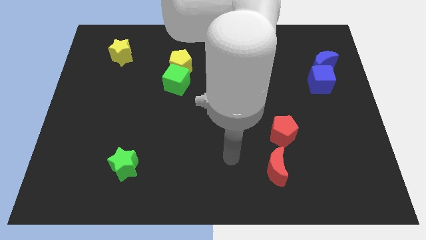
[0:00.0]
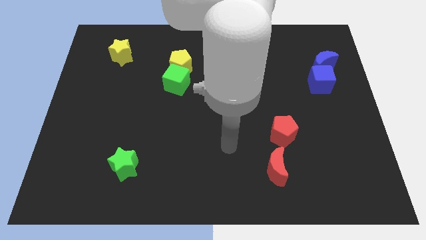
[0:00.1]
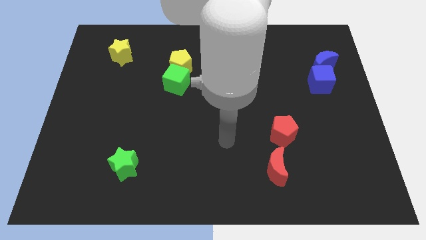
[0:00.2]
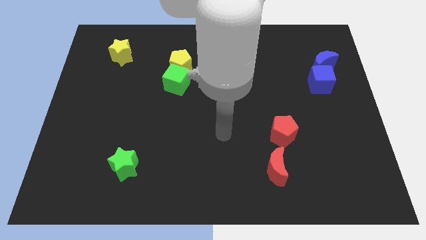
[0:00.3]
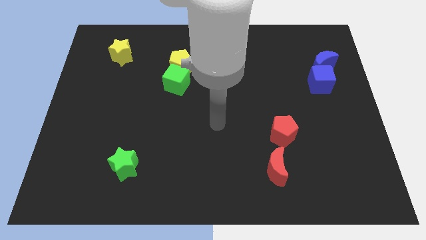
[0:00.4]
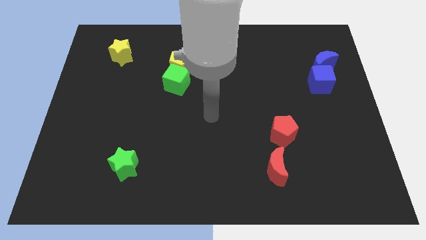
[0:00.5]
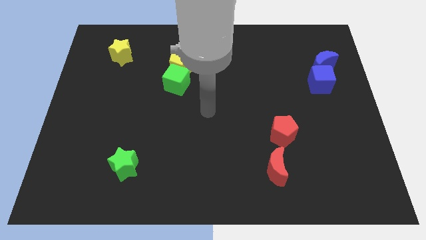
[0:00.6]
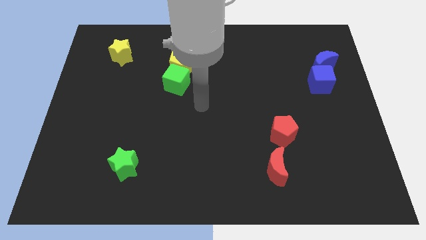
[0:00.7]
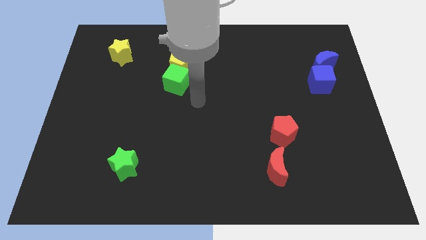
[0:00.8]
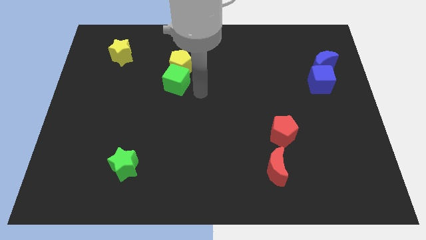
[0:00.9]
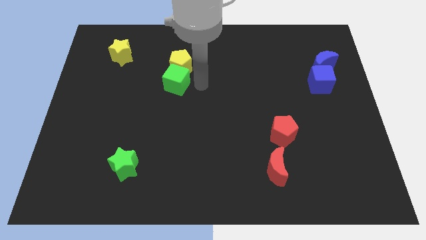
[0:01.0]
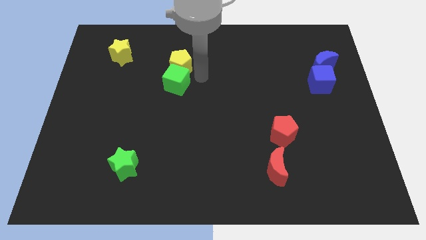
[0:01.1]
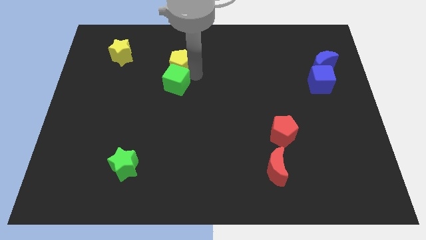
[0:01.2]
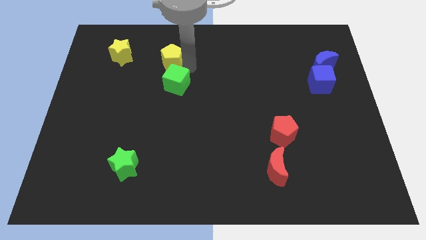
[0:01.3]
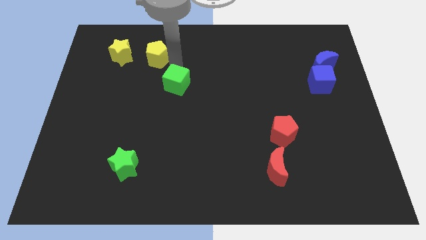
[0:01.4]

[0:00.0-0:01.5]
separate the green cube from the yellow pentagon

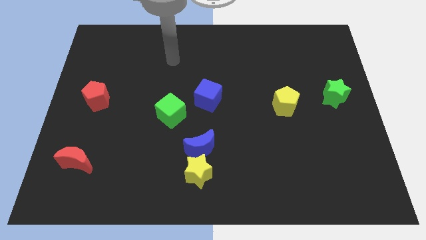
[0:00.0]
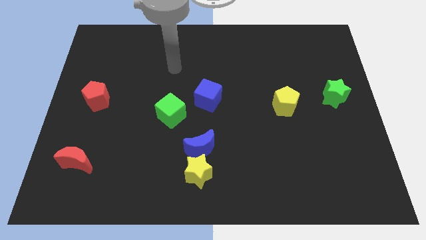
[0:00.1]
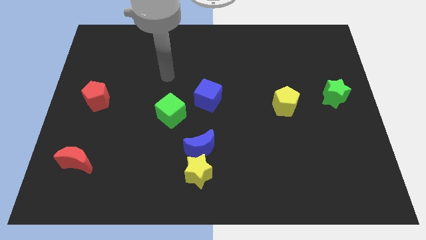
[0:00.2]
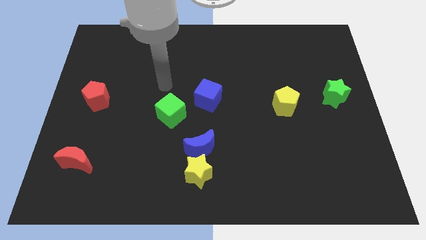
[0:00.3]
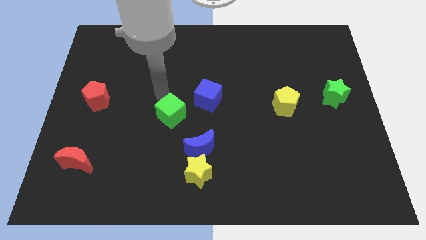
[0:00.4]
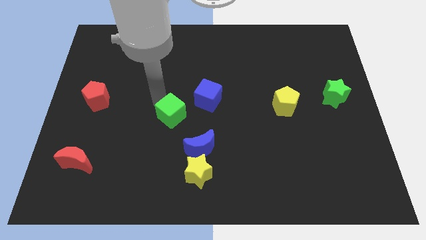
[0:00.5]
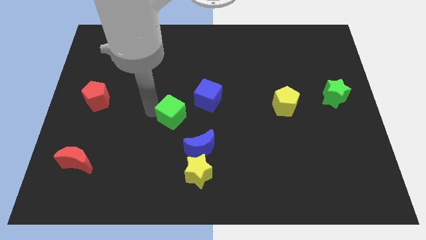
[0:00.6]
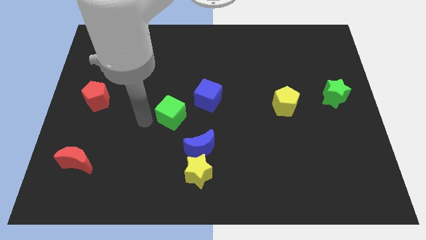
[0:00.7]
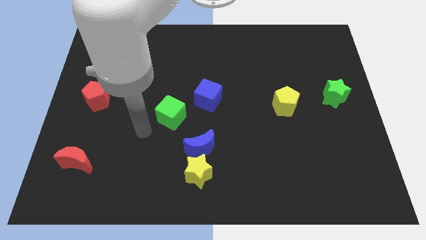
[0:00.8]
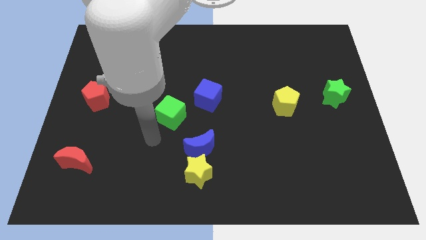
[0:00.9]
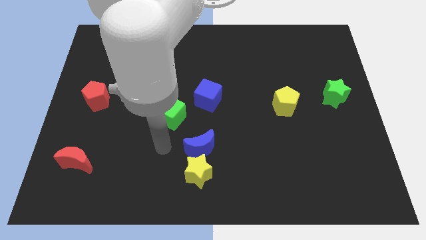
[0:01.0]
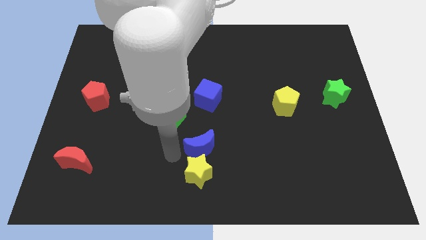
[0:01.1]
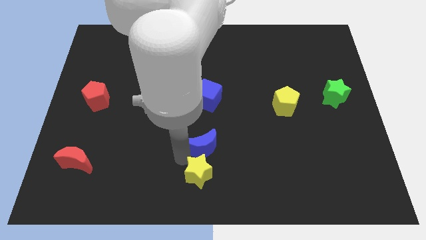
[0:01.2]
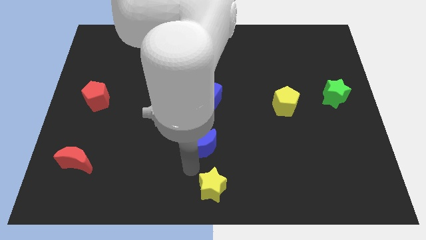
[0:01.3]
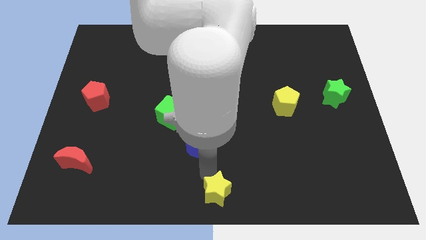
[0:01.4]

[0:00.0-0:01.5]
pull the blue moon apart from the yellow star

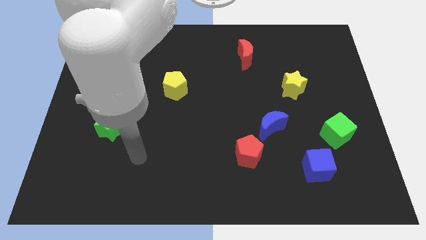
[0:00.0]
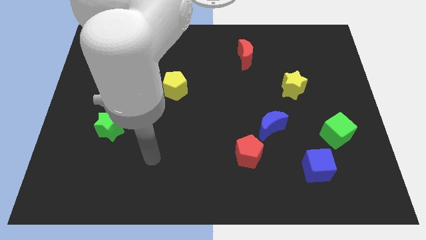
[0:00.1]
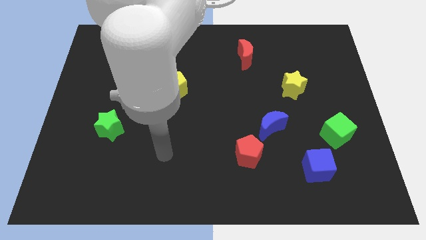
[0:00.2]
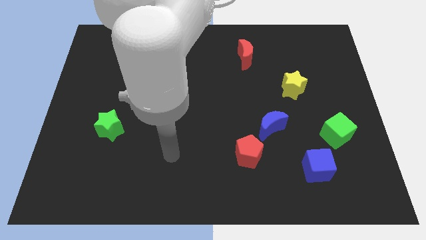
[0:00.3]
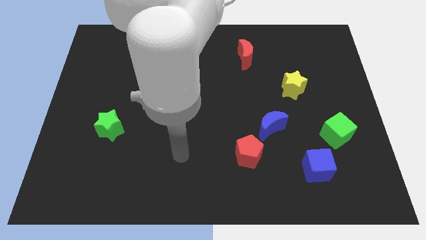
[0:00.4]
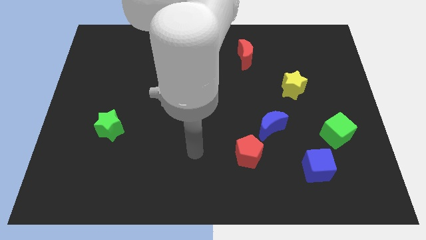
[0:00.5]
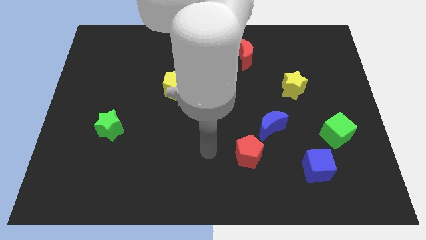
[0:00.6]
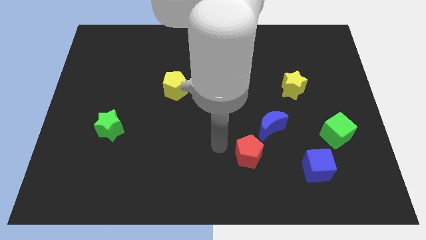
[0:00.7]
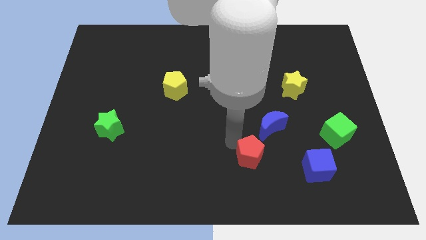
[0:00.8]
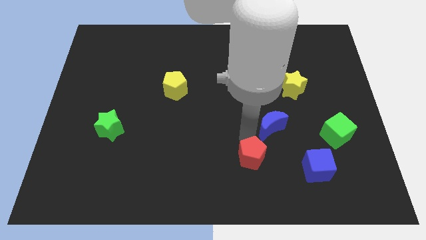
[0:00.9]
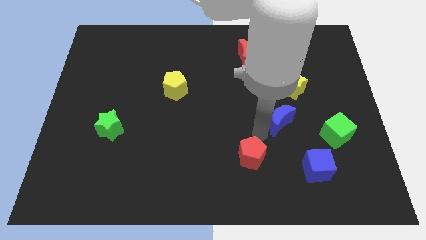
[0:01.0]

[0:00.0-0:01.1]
move the red pentagon away from the blue moon

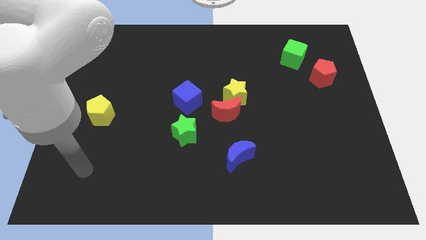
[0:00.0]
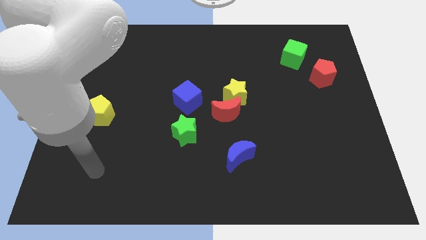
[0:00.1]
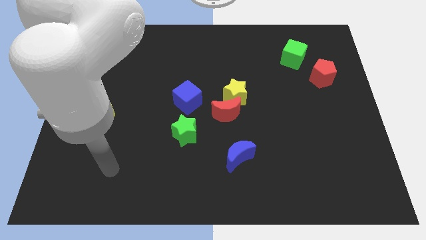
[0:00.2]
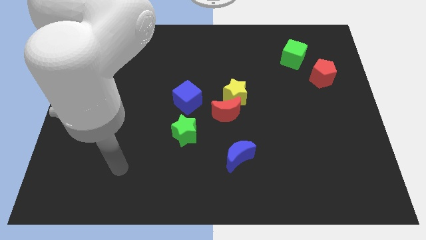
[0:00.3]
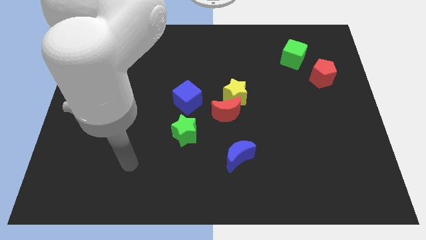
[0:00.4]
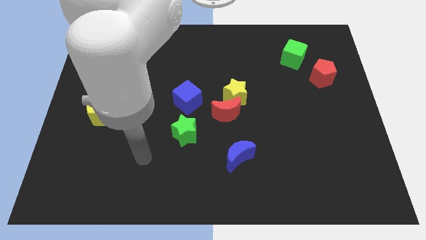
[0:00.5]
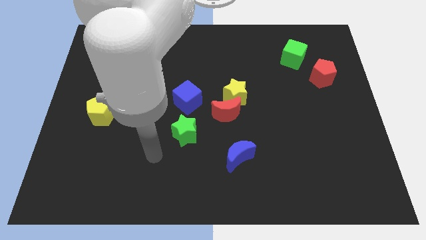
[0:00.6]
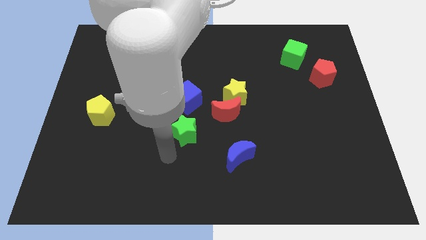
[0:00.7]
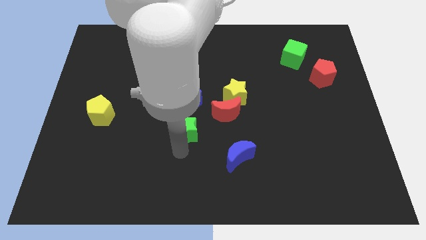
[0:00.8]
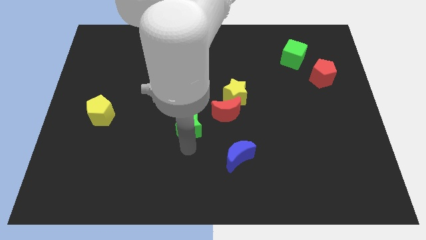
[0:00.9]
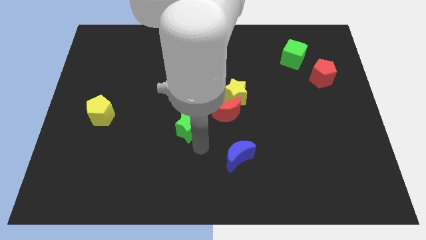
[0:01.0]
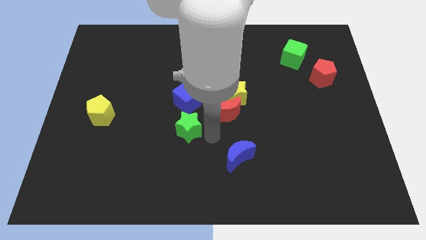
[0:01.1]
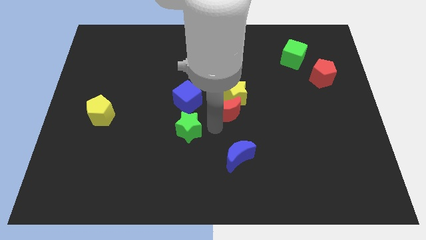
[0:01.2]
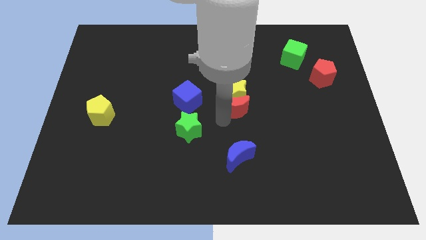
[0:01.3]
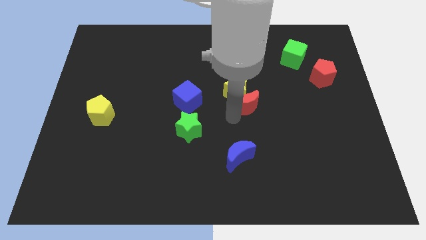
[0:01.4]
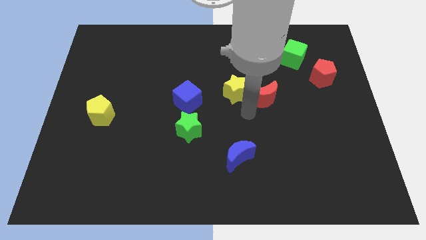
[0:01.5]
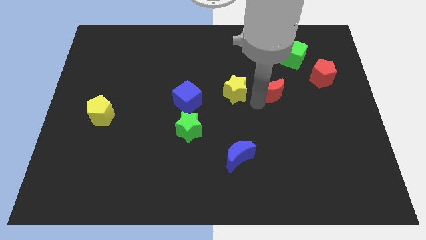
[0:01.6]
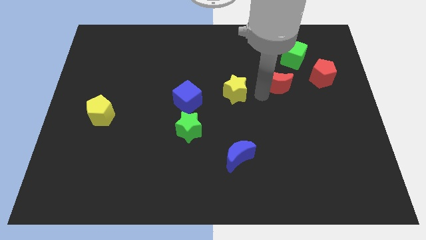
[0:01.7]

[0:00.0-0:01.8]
pull the yellow star apart from the red moon

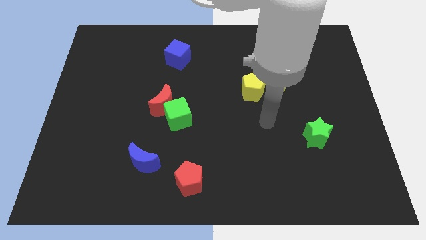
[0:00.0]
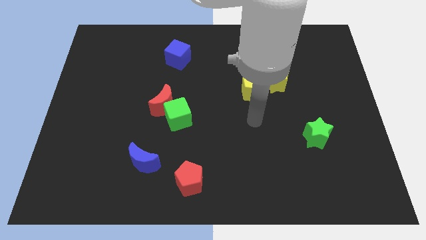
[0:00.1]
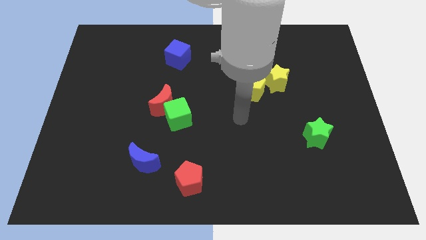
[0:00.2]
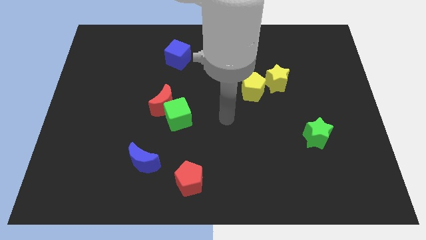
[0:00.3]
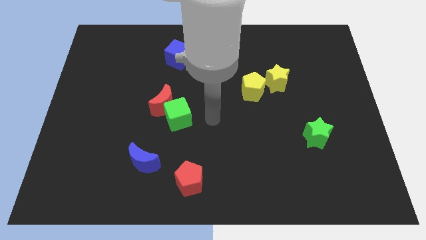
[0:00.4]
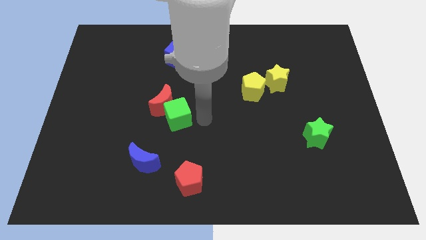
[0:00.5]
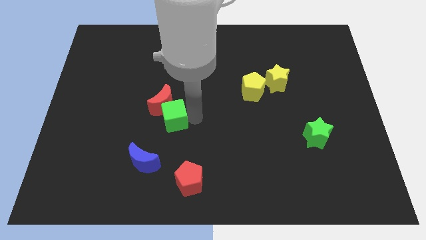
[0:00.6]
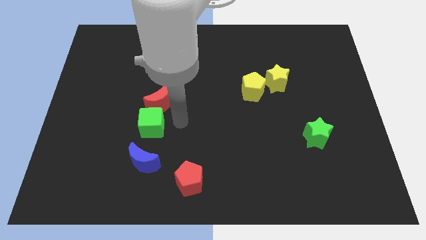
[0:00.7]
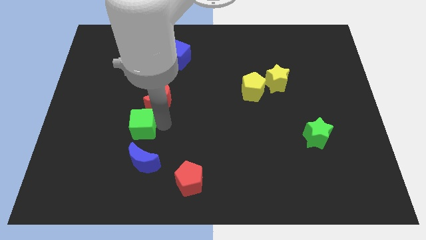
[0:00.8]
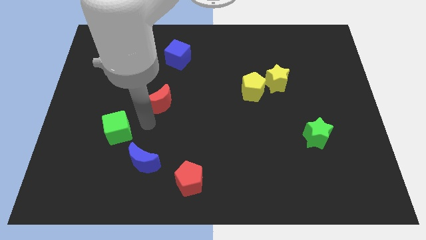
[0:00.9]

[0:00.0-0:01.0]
pull the red moon apart from the green cube

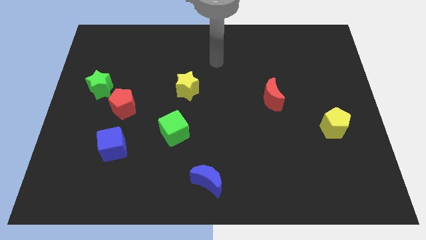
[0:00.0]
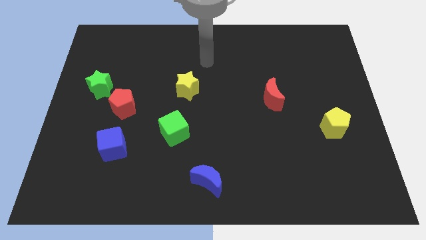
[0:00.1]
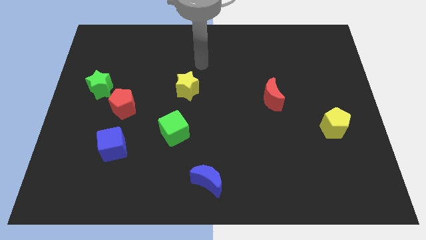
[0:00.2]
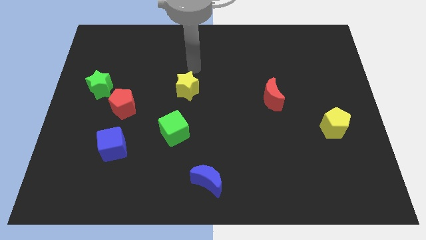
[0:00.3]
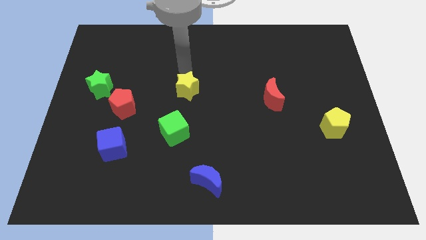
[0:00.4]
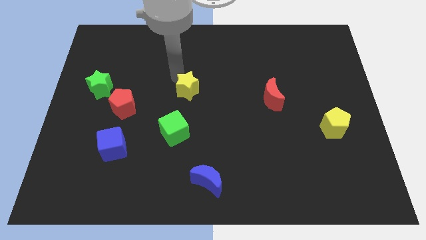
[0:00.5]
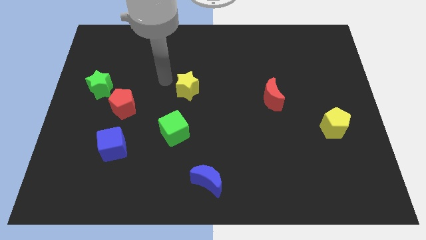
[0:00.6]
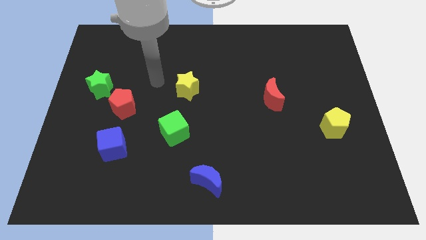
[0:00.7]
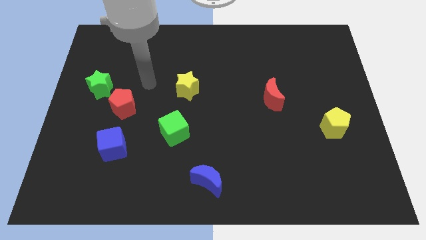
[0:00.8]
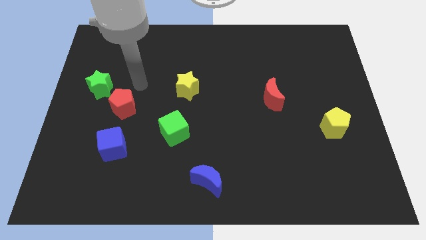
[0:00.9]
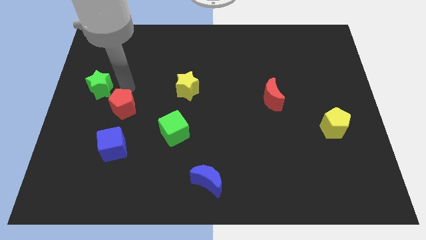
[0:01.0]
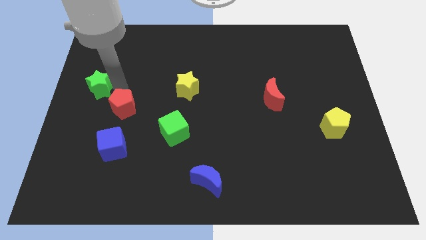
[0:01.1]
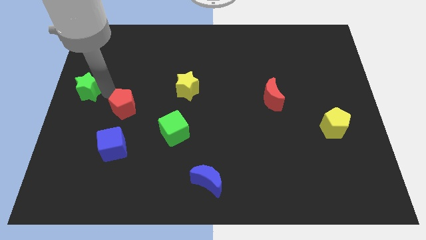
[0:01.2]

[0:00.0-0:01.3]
separate the red pentagon from the green star

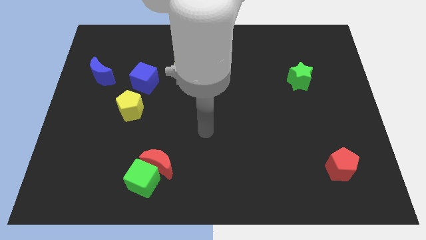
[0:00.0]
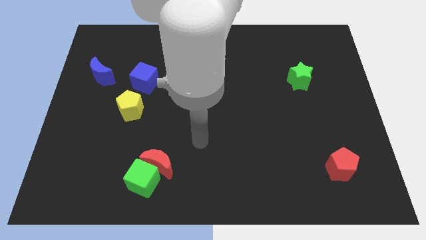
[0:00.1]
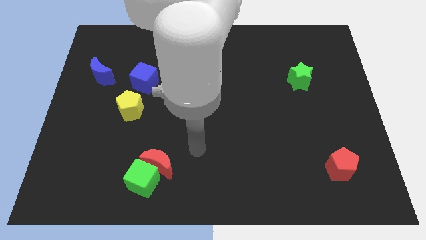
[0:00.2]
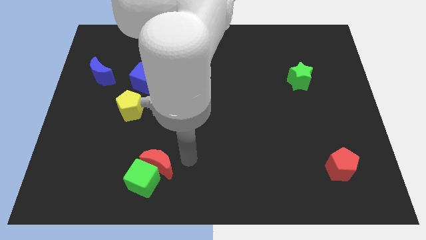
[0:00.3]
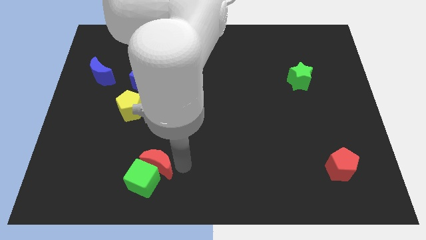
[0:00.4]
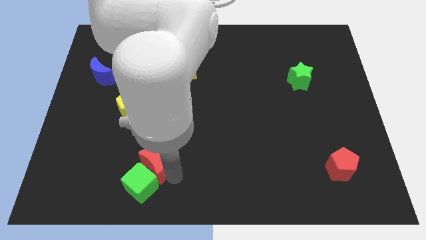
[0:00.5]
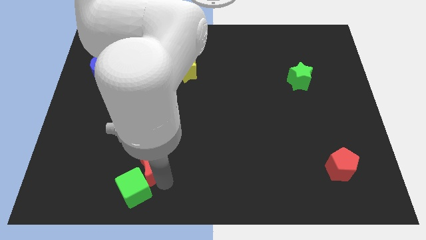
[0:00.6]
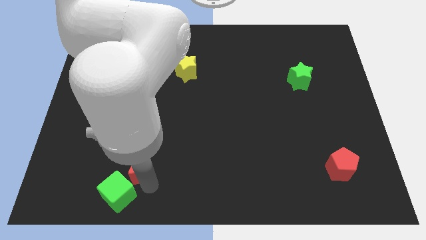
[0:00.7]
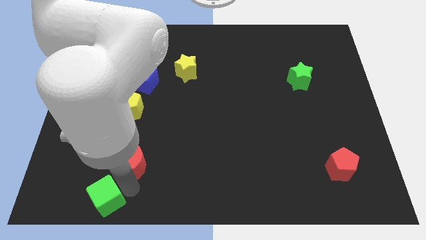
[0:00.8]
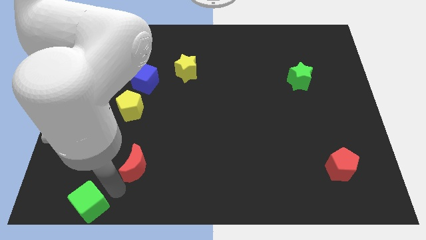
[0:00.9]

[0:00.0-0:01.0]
move the red moon away from the green cube

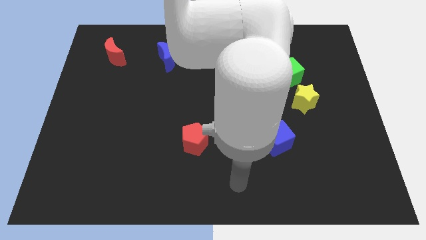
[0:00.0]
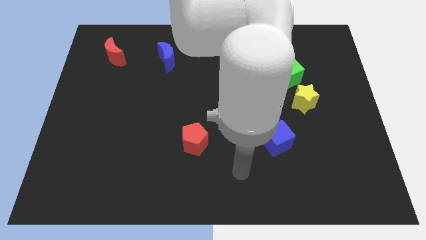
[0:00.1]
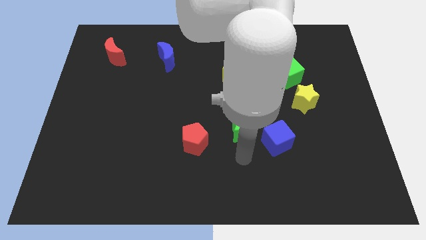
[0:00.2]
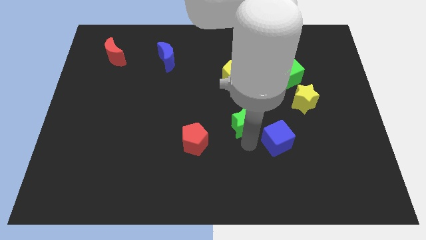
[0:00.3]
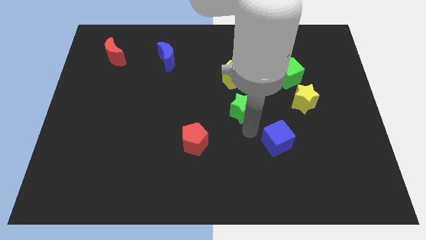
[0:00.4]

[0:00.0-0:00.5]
pull the blue cube apart from the green star
